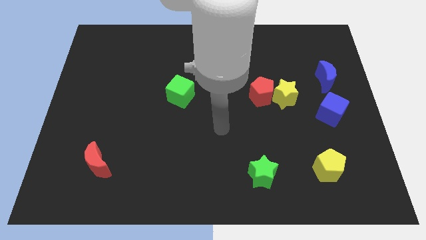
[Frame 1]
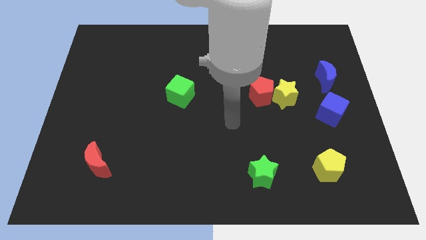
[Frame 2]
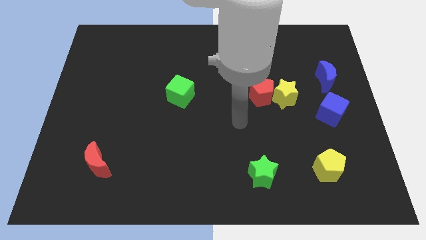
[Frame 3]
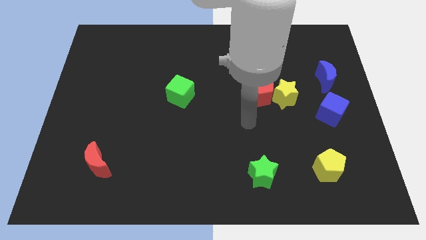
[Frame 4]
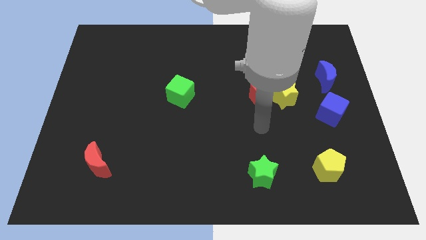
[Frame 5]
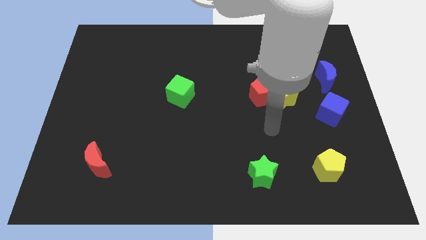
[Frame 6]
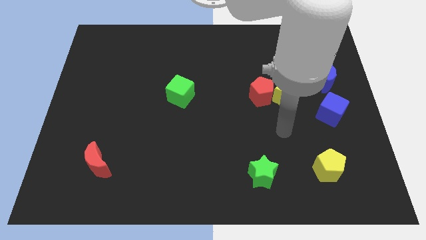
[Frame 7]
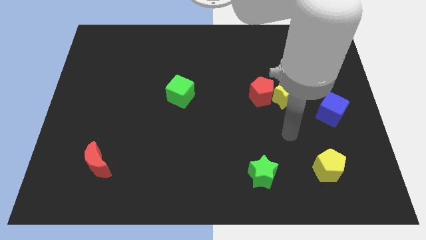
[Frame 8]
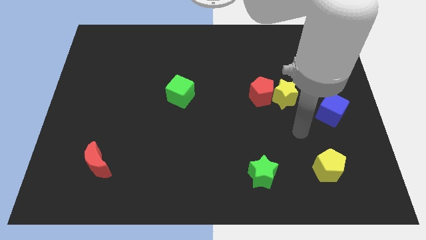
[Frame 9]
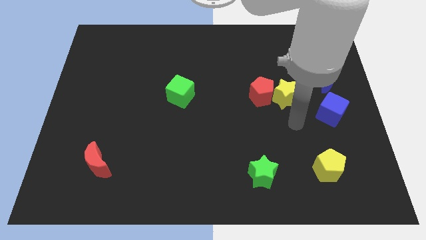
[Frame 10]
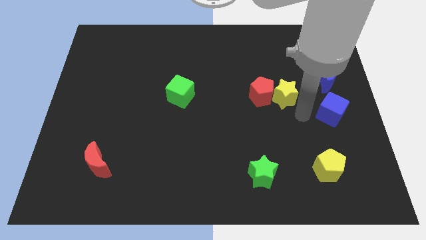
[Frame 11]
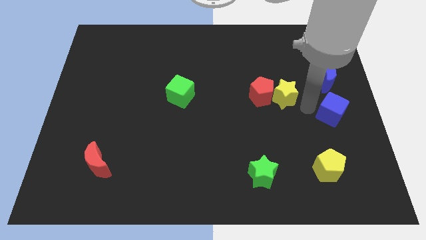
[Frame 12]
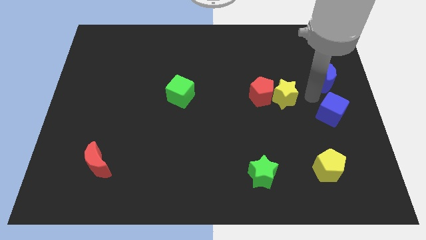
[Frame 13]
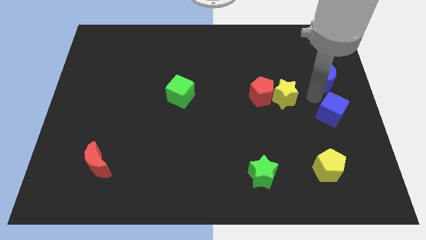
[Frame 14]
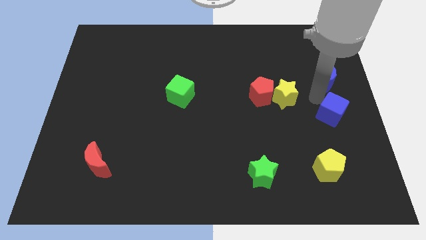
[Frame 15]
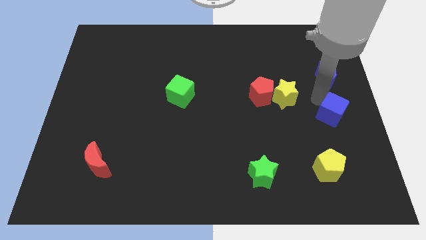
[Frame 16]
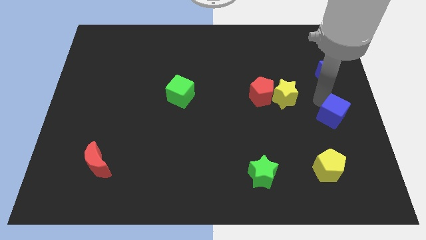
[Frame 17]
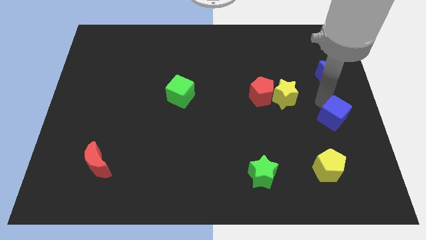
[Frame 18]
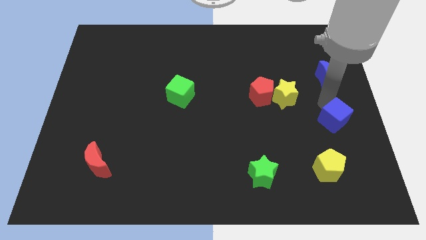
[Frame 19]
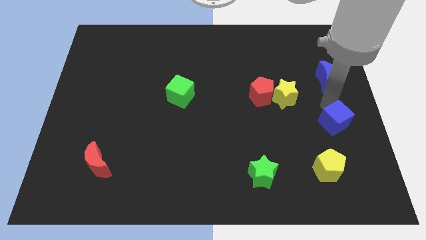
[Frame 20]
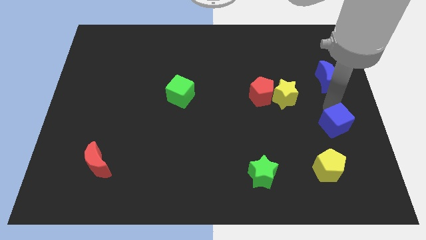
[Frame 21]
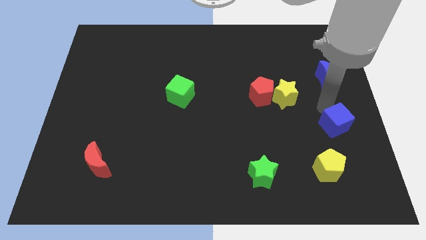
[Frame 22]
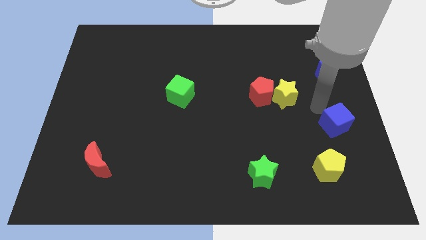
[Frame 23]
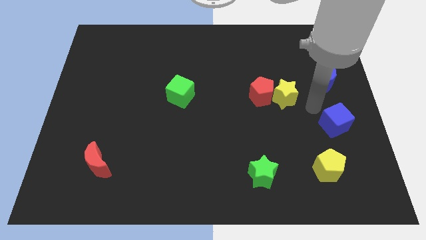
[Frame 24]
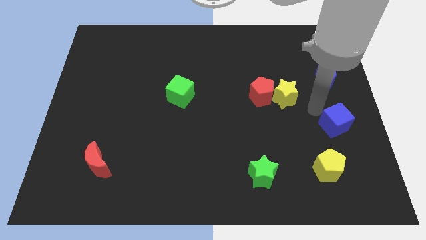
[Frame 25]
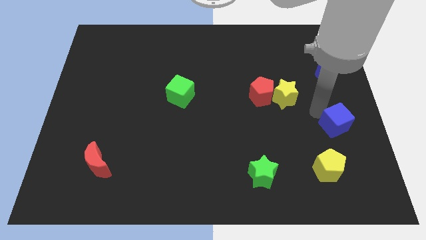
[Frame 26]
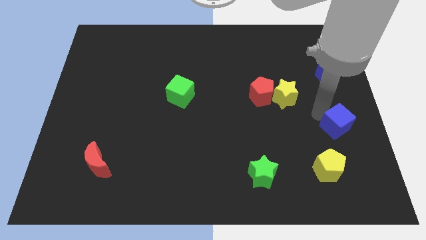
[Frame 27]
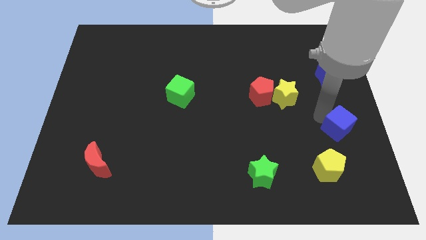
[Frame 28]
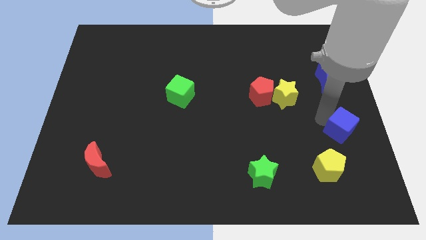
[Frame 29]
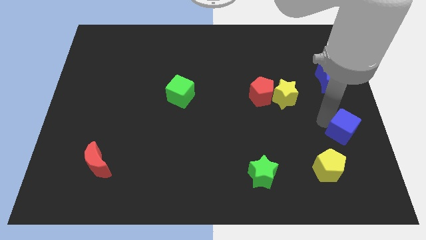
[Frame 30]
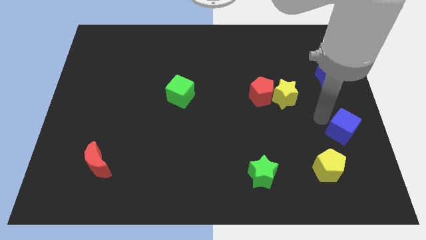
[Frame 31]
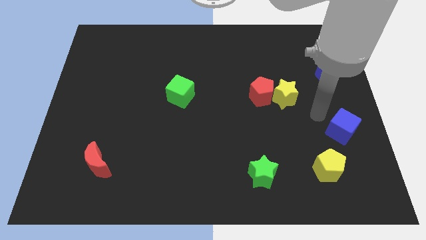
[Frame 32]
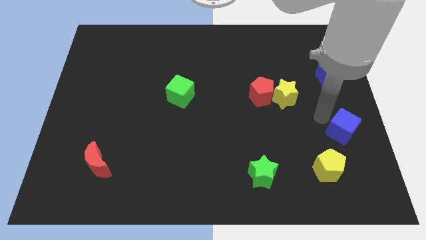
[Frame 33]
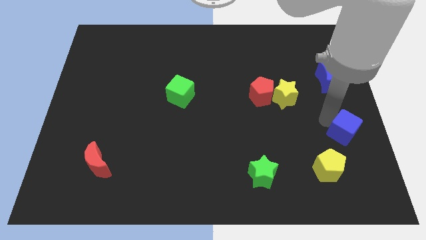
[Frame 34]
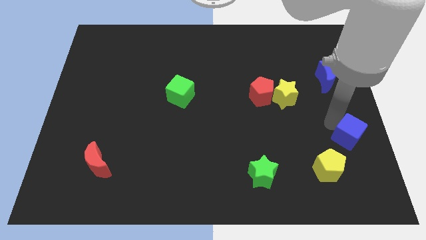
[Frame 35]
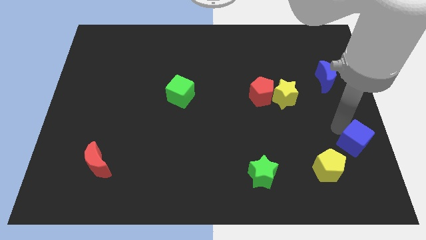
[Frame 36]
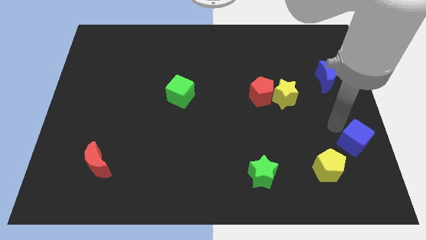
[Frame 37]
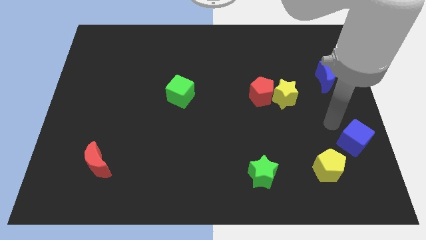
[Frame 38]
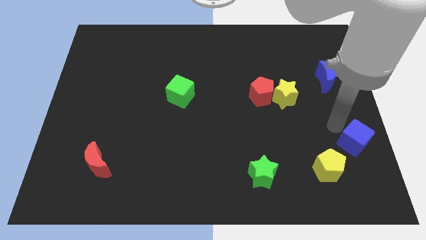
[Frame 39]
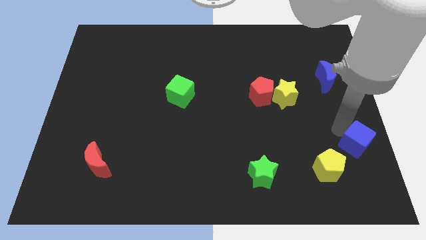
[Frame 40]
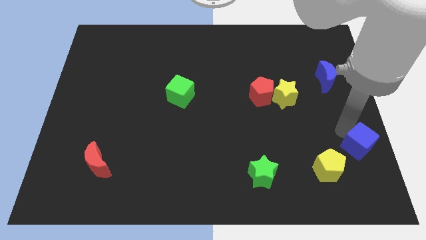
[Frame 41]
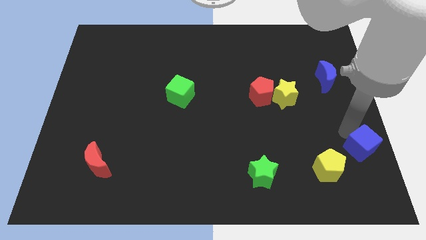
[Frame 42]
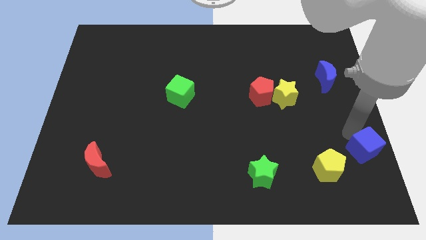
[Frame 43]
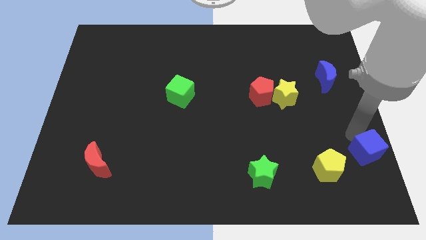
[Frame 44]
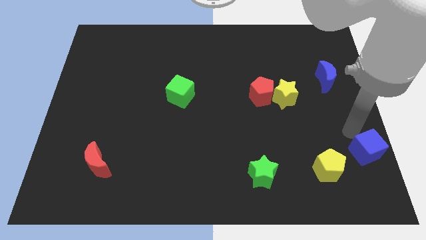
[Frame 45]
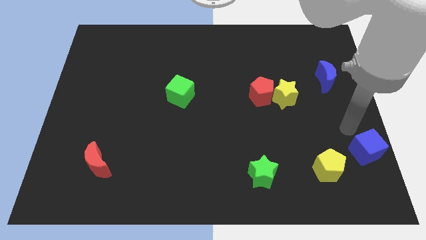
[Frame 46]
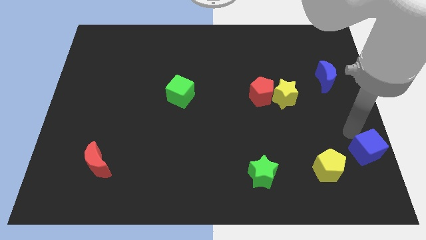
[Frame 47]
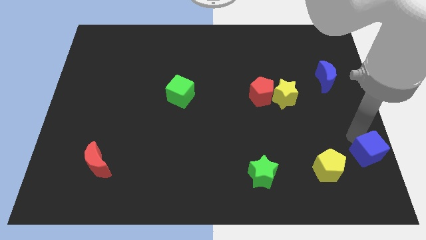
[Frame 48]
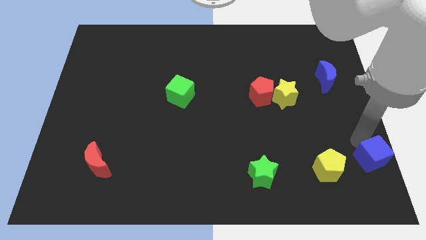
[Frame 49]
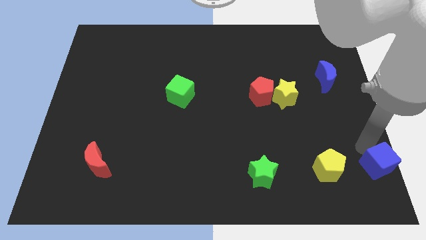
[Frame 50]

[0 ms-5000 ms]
slide the blue cube to the bottom right corner

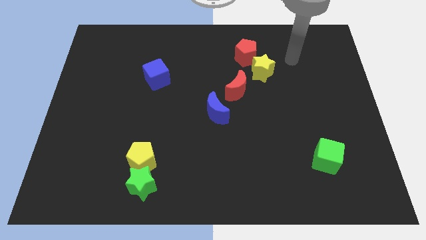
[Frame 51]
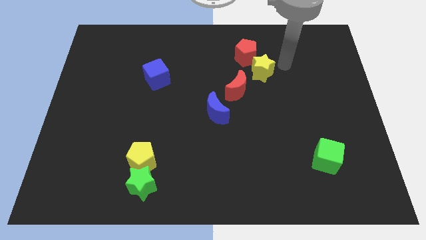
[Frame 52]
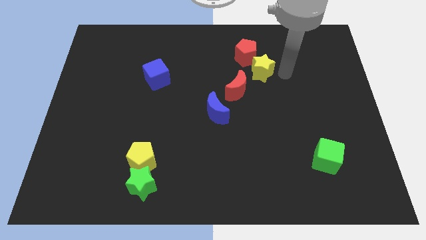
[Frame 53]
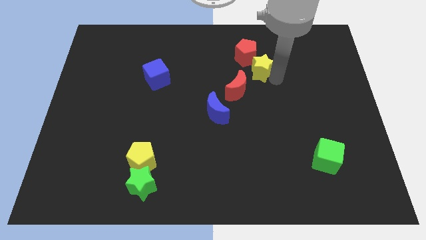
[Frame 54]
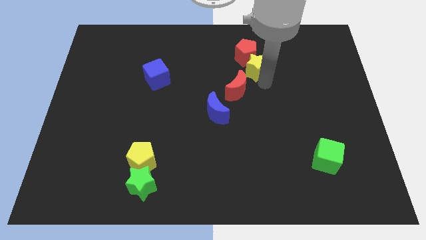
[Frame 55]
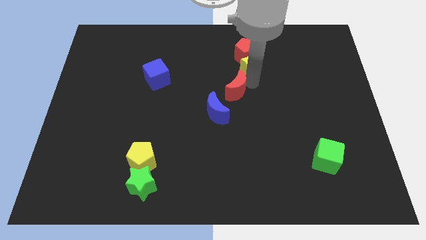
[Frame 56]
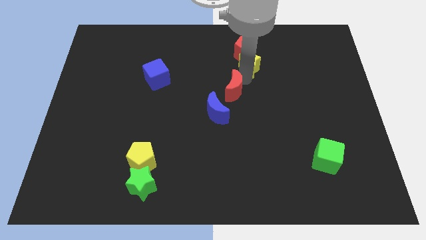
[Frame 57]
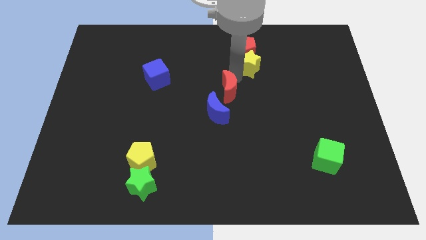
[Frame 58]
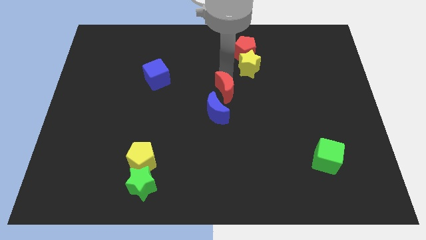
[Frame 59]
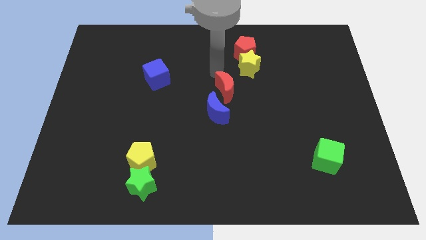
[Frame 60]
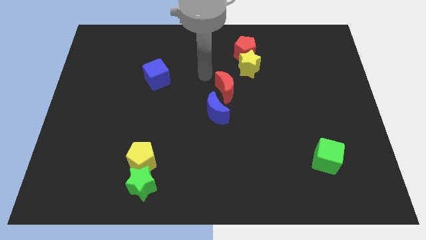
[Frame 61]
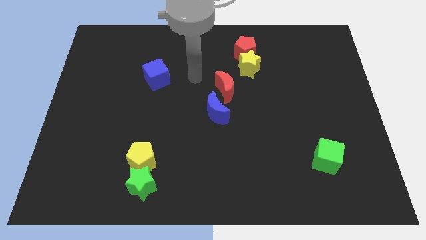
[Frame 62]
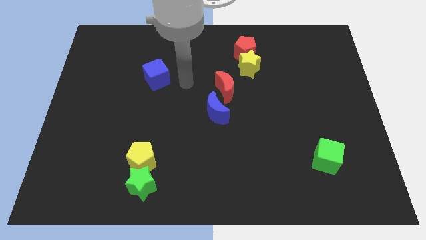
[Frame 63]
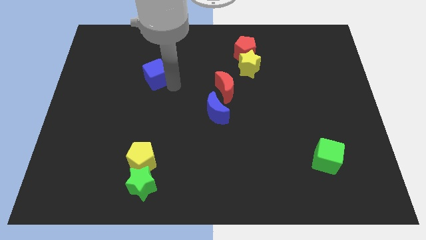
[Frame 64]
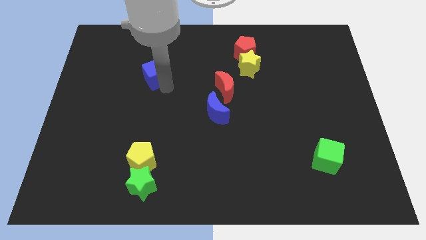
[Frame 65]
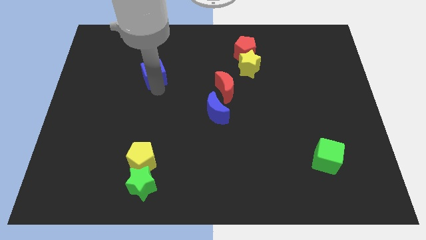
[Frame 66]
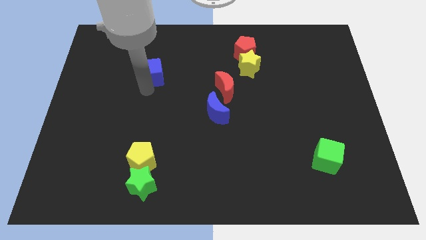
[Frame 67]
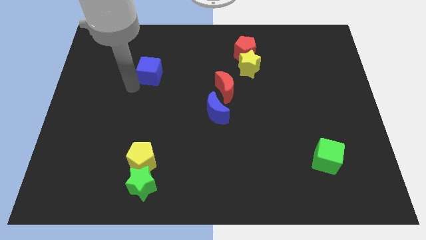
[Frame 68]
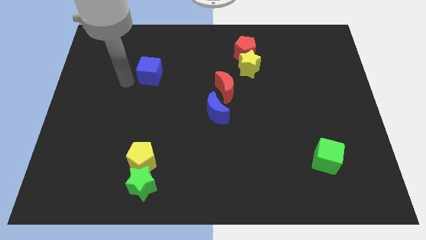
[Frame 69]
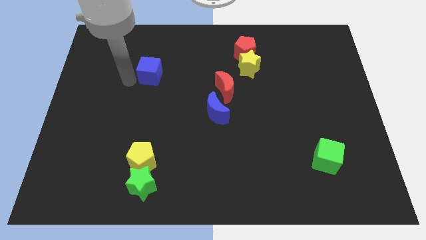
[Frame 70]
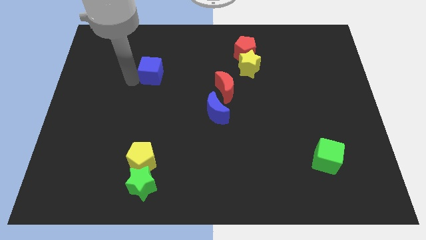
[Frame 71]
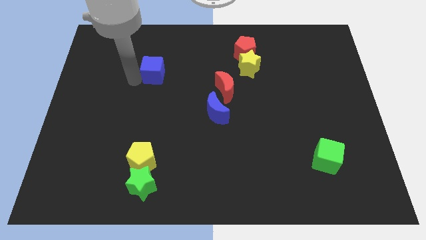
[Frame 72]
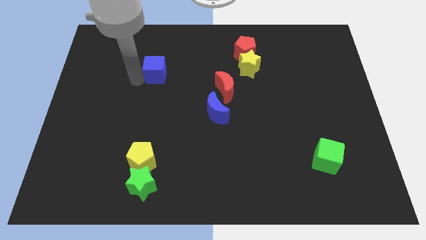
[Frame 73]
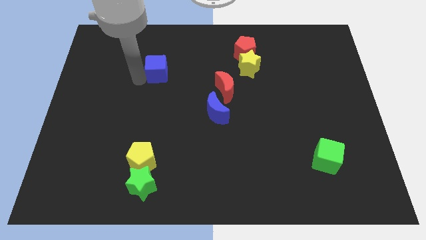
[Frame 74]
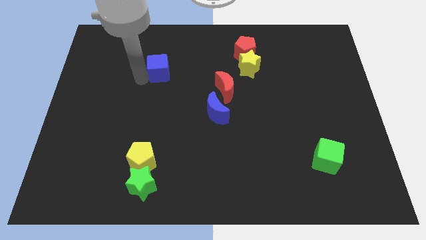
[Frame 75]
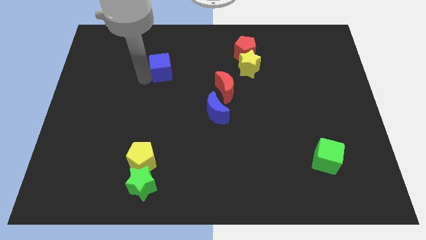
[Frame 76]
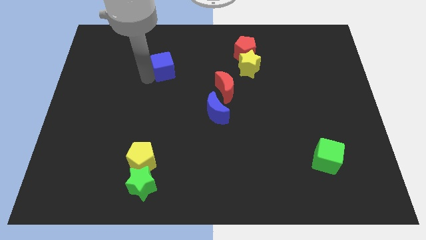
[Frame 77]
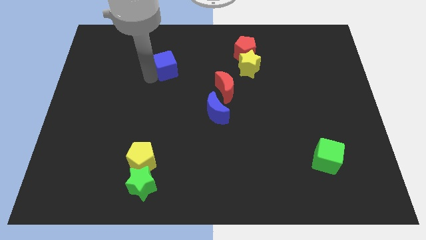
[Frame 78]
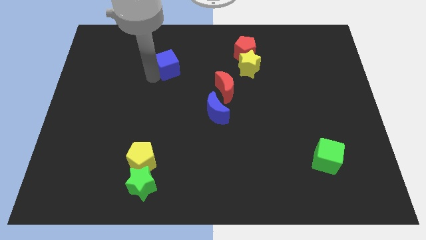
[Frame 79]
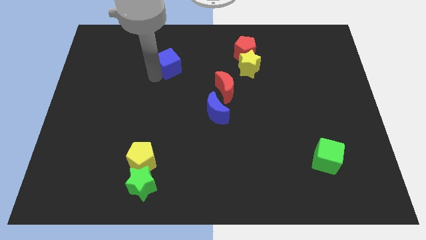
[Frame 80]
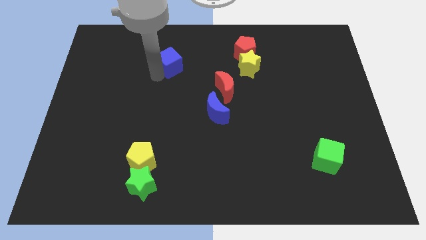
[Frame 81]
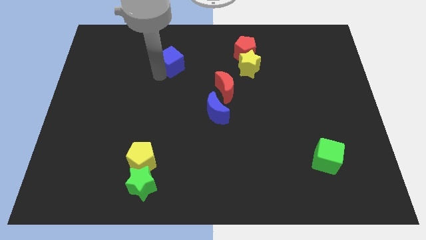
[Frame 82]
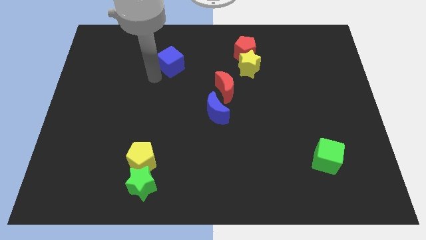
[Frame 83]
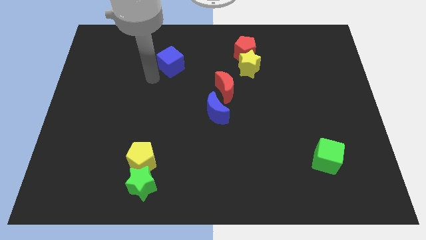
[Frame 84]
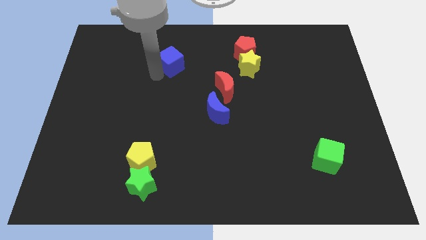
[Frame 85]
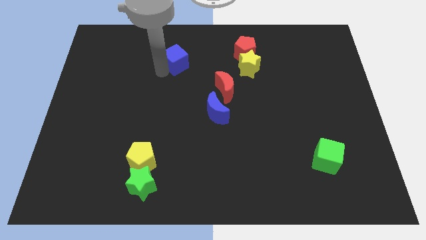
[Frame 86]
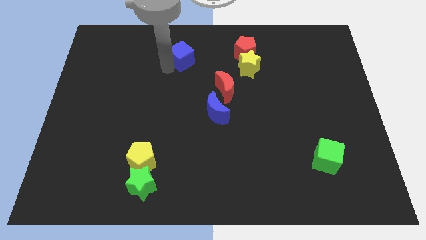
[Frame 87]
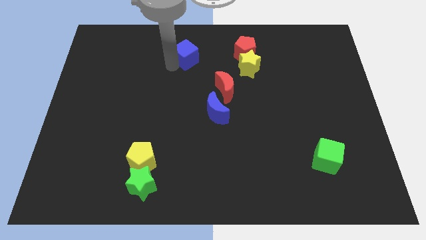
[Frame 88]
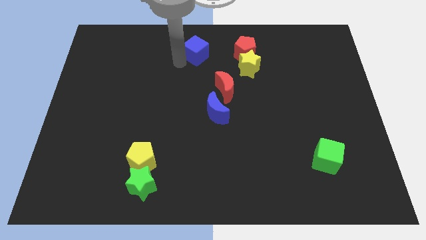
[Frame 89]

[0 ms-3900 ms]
move the blue cube to the towards your base
